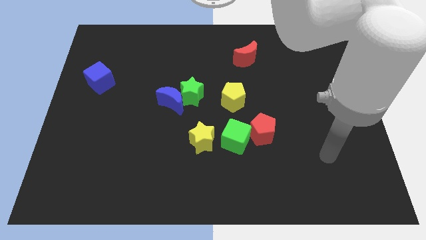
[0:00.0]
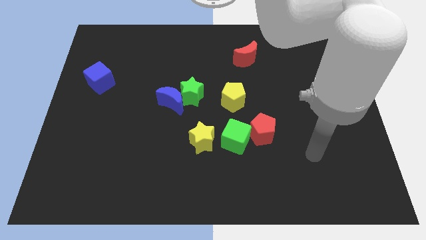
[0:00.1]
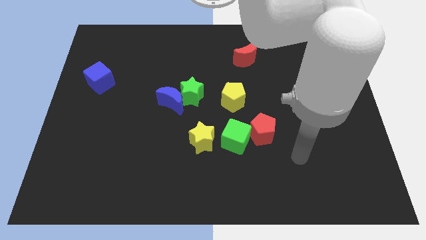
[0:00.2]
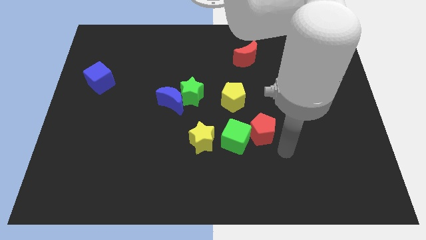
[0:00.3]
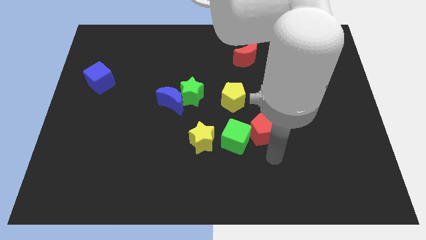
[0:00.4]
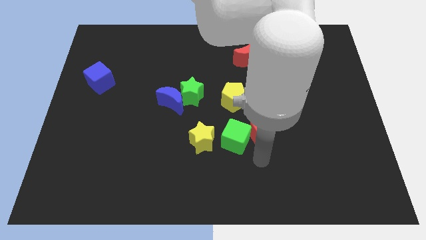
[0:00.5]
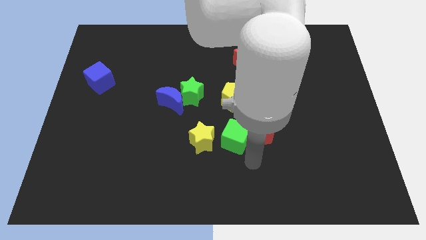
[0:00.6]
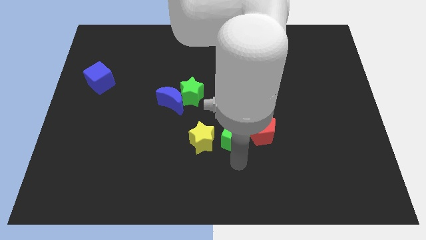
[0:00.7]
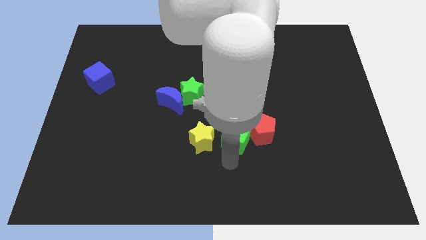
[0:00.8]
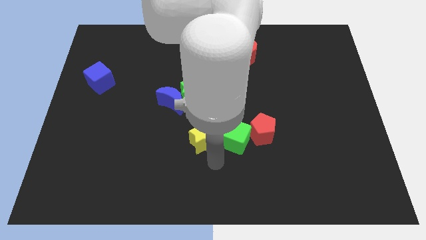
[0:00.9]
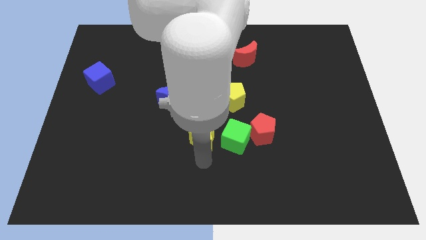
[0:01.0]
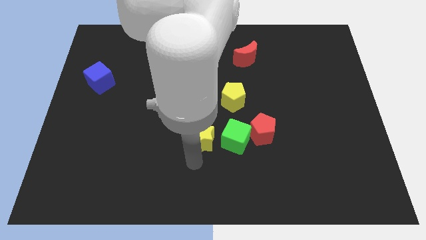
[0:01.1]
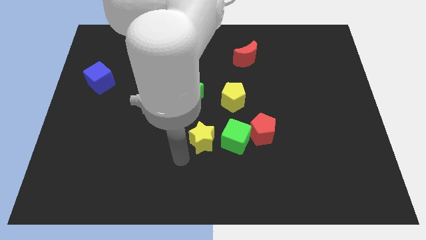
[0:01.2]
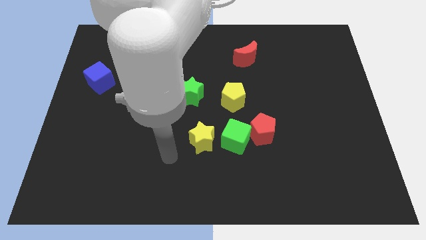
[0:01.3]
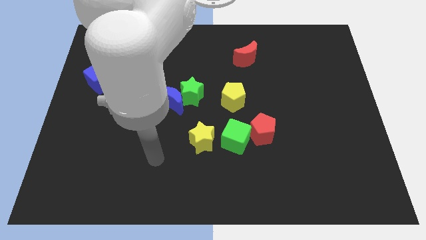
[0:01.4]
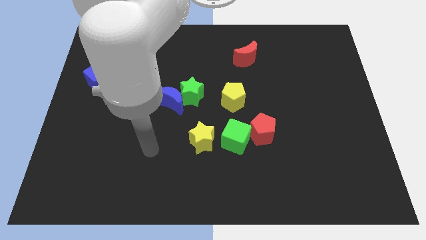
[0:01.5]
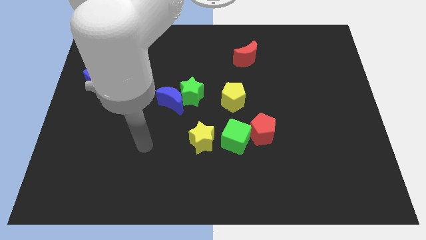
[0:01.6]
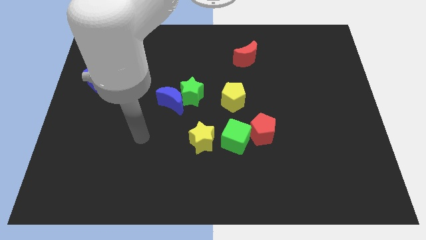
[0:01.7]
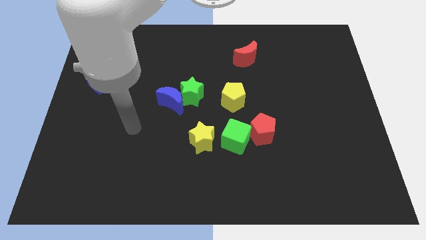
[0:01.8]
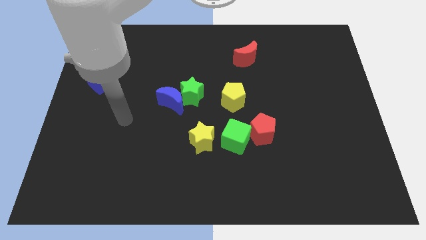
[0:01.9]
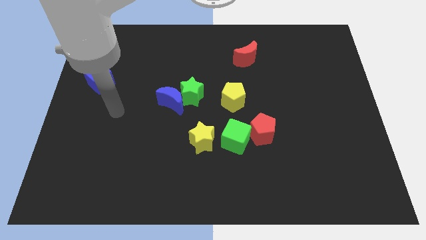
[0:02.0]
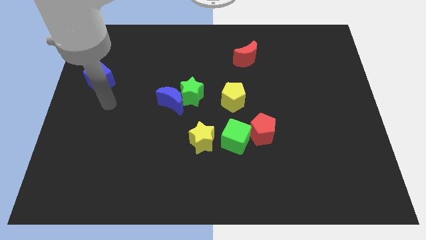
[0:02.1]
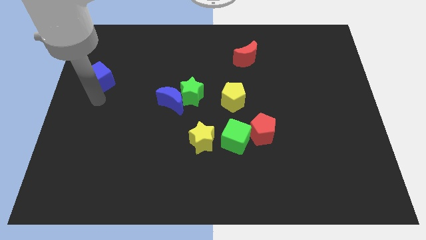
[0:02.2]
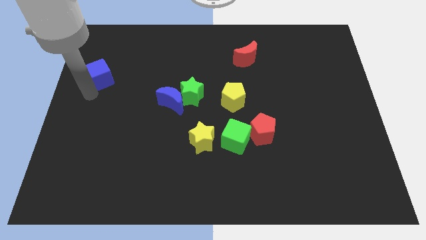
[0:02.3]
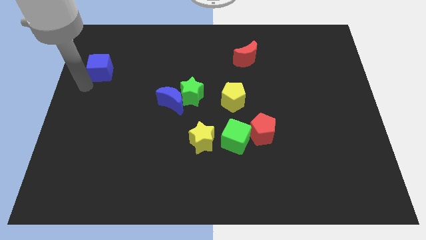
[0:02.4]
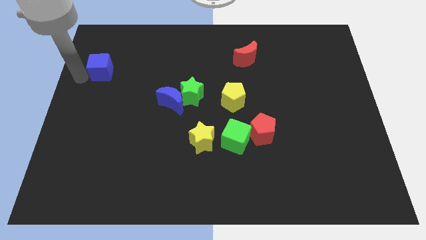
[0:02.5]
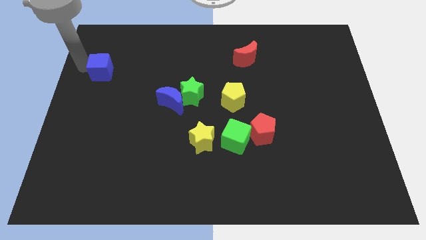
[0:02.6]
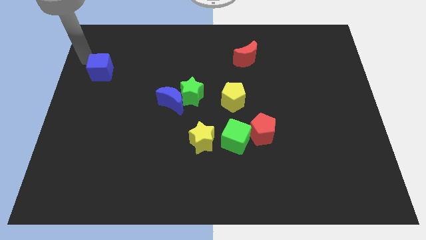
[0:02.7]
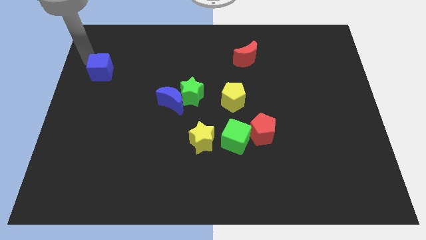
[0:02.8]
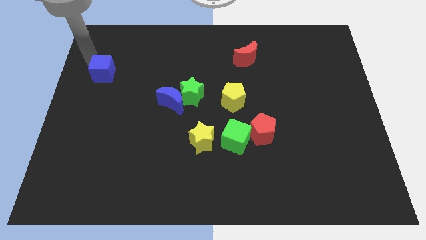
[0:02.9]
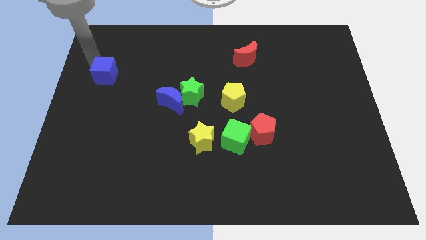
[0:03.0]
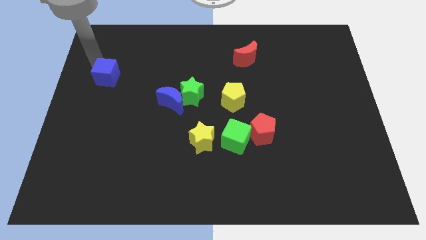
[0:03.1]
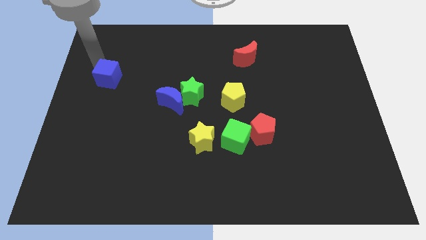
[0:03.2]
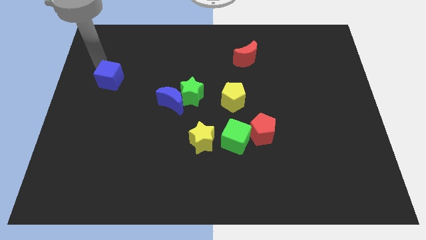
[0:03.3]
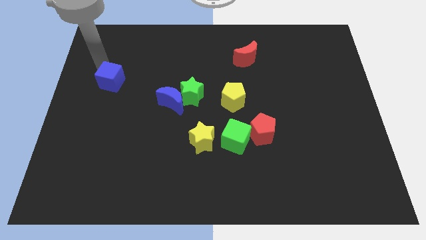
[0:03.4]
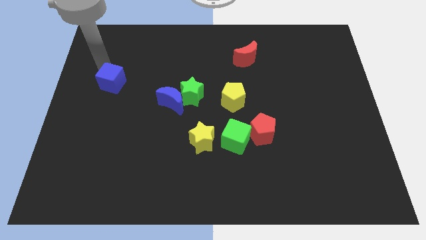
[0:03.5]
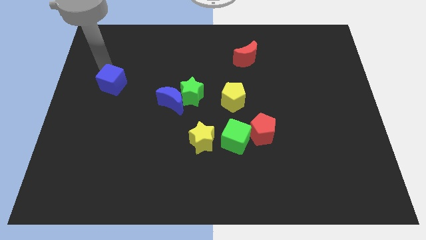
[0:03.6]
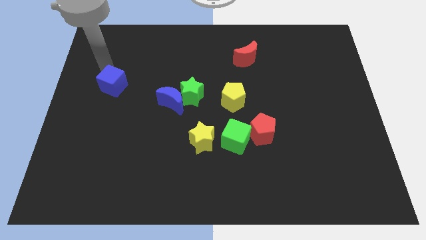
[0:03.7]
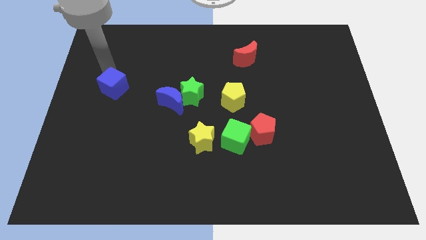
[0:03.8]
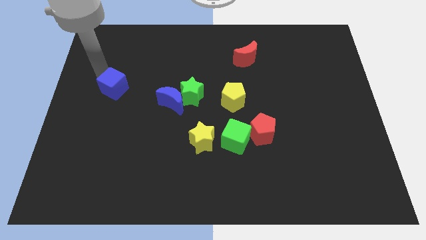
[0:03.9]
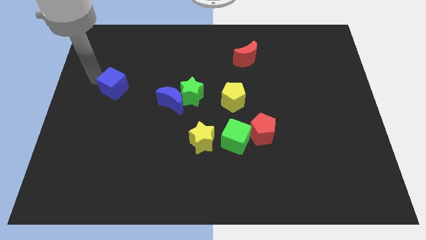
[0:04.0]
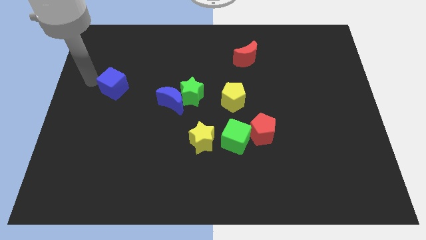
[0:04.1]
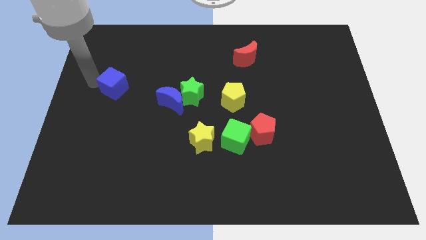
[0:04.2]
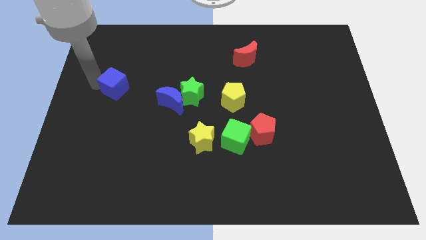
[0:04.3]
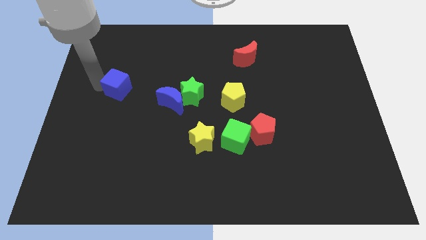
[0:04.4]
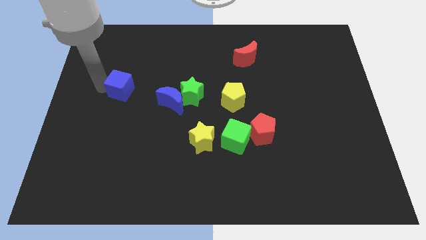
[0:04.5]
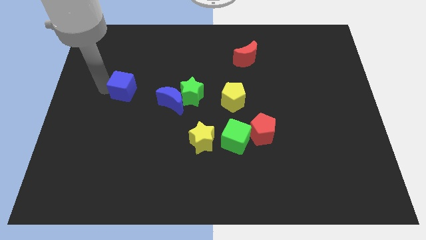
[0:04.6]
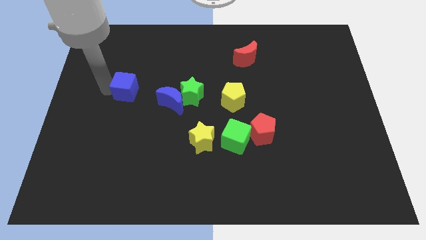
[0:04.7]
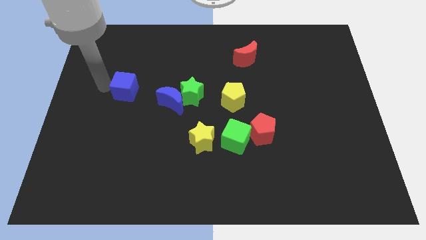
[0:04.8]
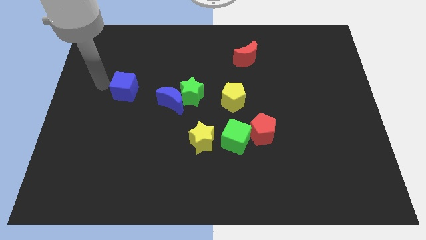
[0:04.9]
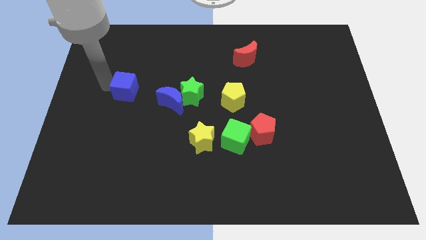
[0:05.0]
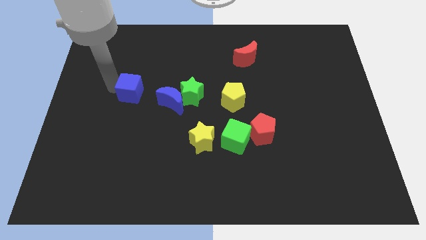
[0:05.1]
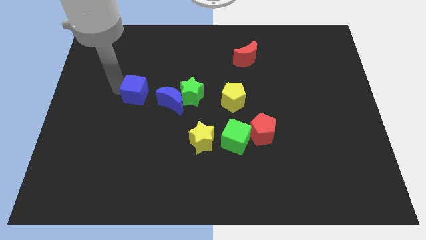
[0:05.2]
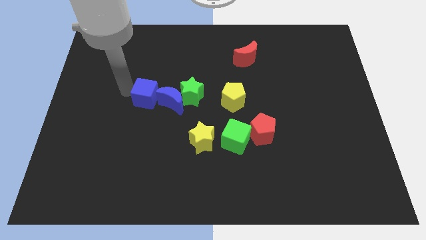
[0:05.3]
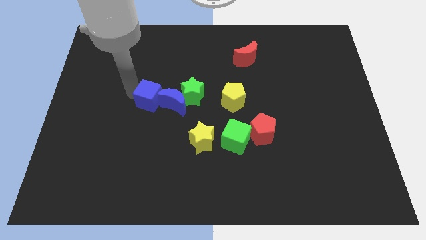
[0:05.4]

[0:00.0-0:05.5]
move the blue cube to the blue moon

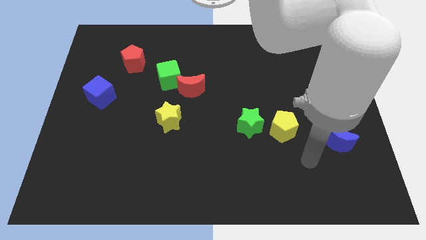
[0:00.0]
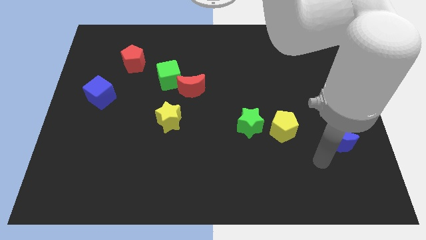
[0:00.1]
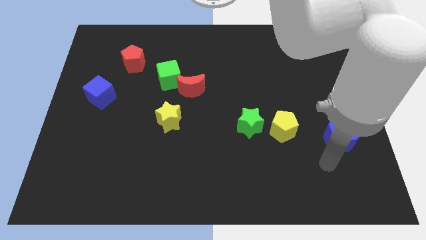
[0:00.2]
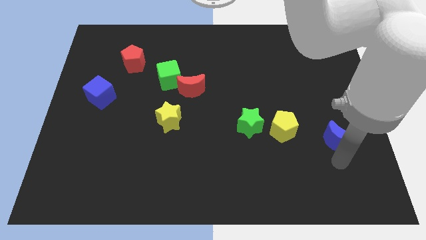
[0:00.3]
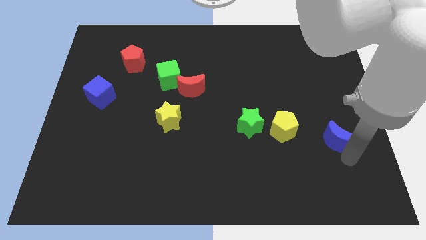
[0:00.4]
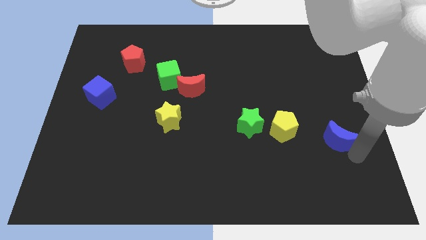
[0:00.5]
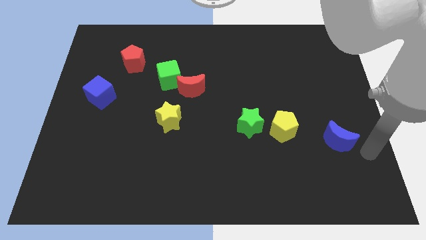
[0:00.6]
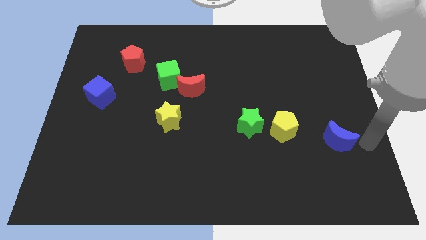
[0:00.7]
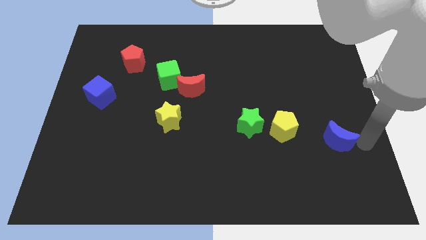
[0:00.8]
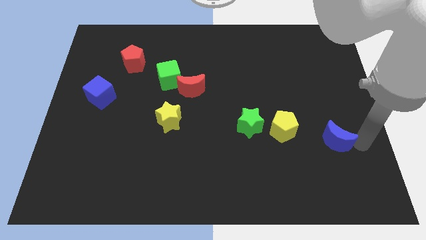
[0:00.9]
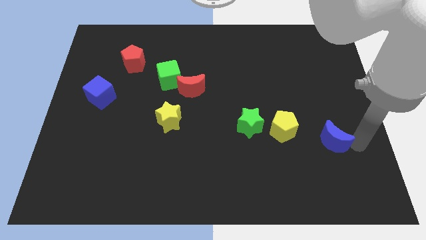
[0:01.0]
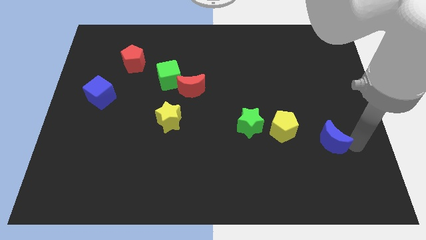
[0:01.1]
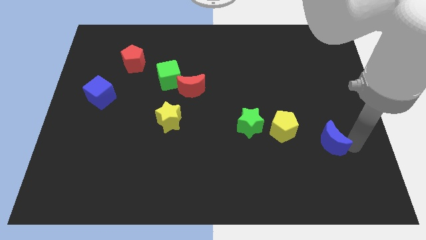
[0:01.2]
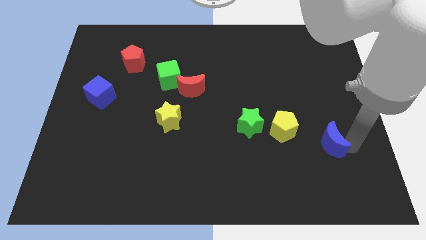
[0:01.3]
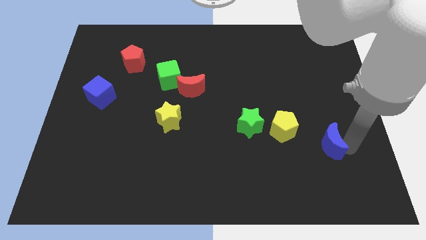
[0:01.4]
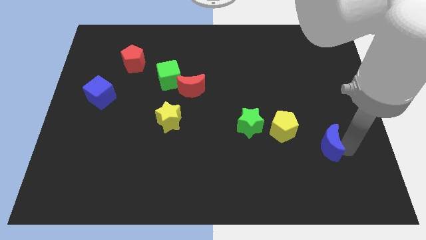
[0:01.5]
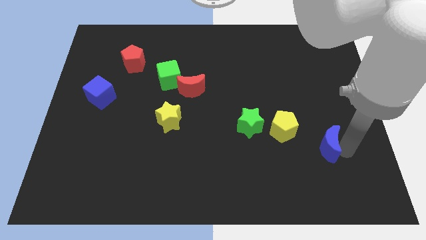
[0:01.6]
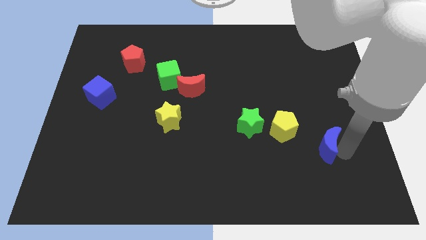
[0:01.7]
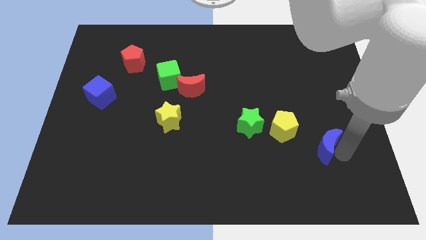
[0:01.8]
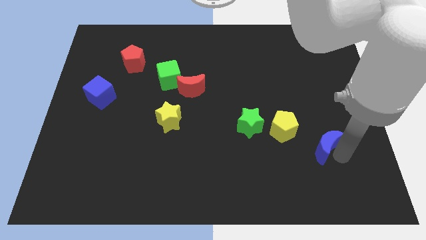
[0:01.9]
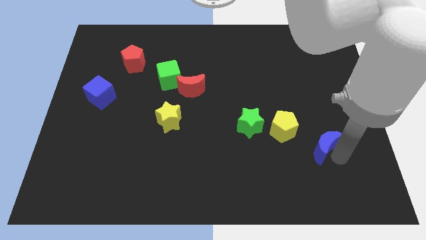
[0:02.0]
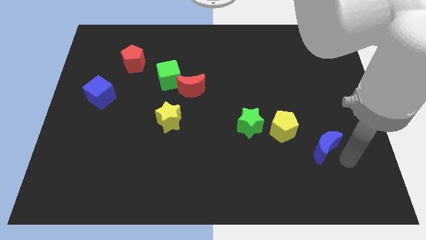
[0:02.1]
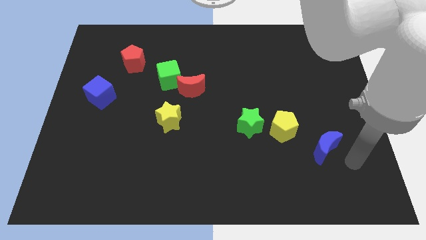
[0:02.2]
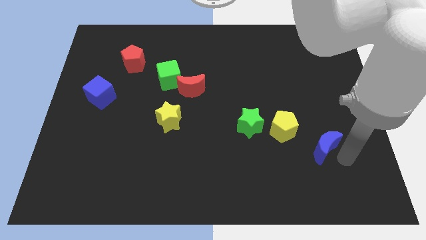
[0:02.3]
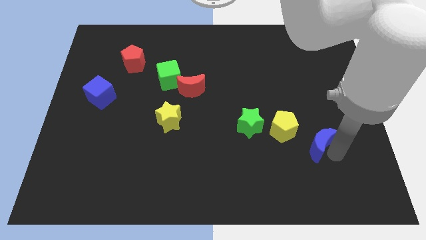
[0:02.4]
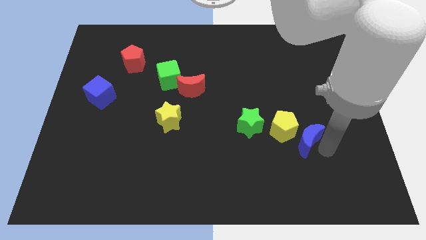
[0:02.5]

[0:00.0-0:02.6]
put the blue moon next to the yellow pentagon
